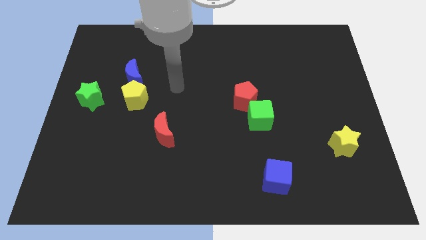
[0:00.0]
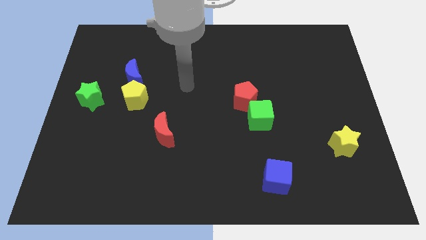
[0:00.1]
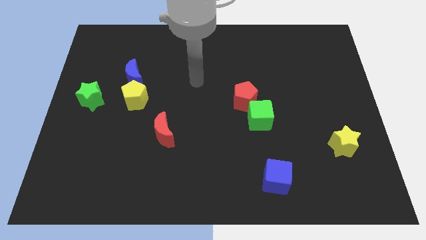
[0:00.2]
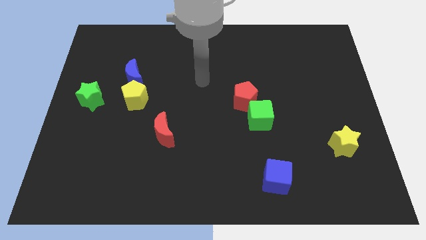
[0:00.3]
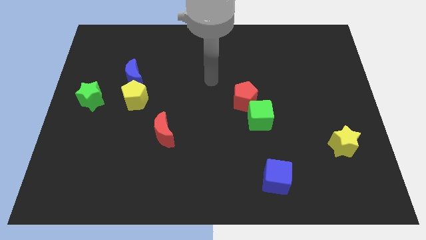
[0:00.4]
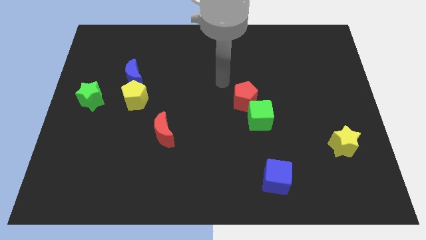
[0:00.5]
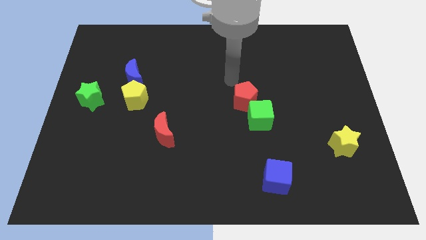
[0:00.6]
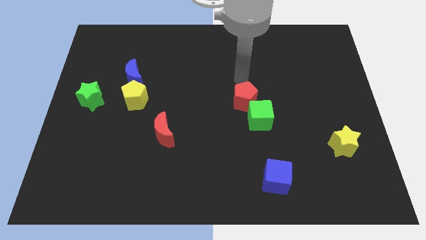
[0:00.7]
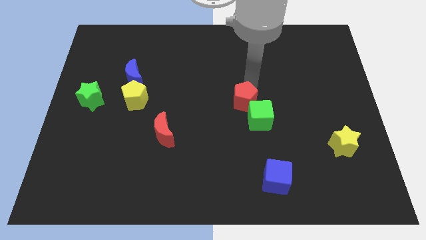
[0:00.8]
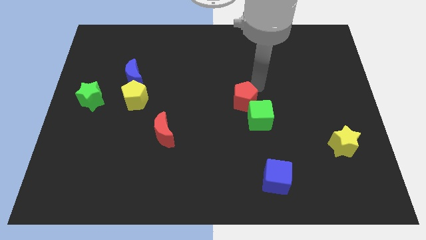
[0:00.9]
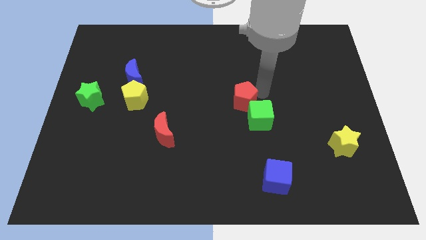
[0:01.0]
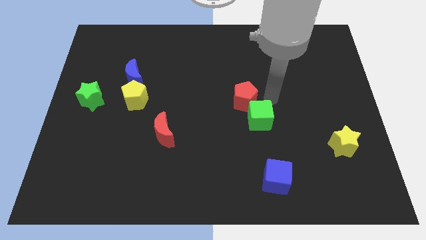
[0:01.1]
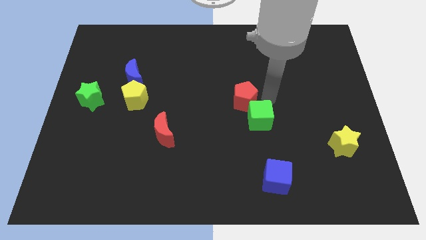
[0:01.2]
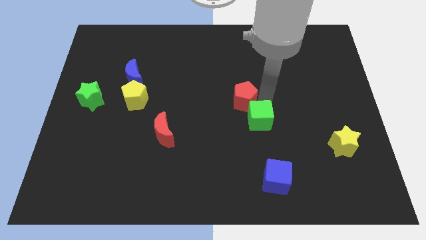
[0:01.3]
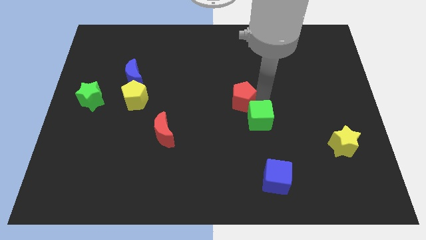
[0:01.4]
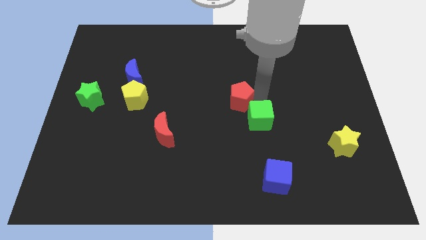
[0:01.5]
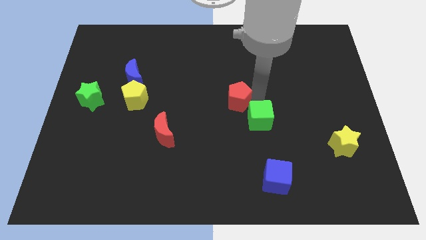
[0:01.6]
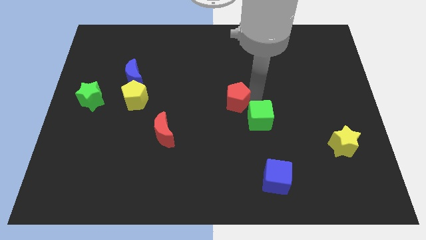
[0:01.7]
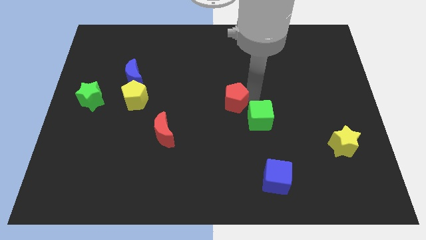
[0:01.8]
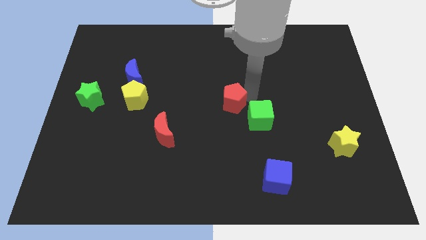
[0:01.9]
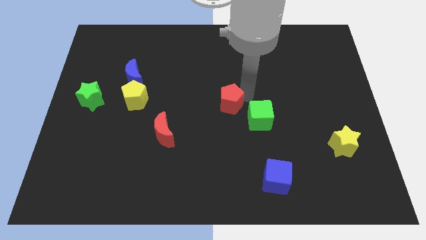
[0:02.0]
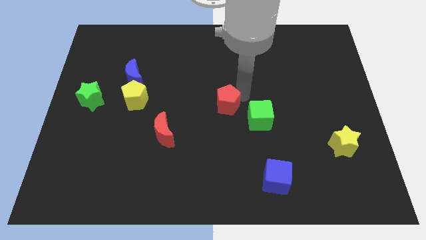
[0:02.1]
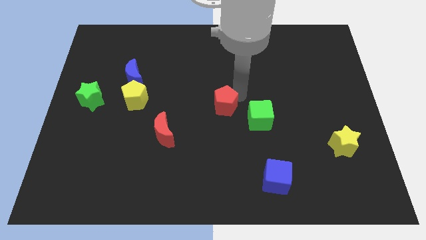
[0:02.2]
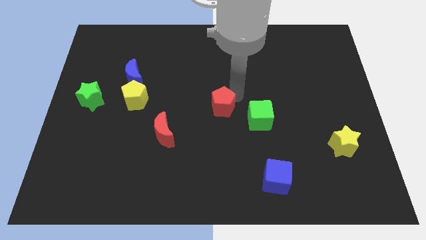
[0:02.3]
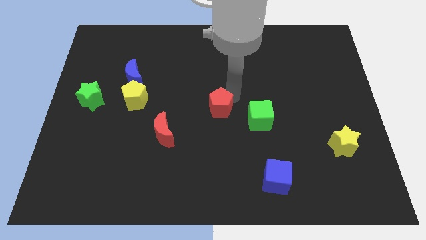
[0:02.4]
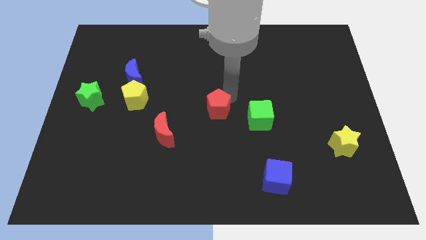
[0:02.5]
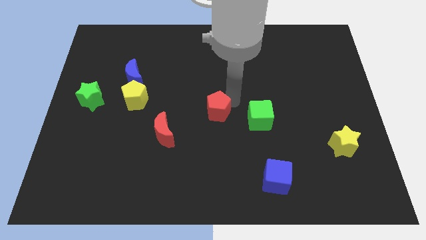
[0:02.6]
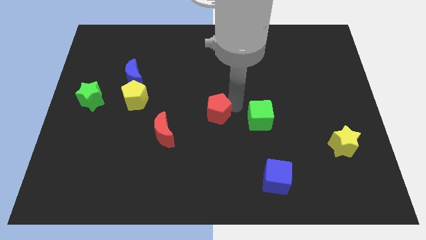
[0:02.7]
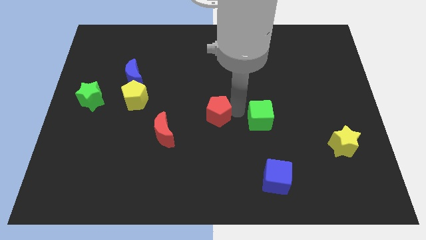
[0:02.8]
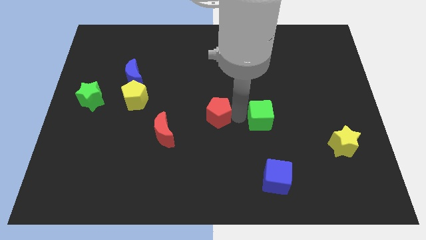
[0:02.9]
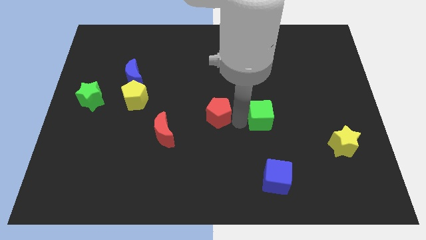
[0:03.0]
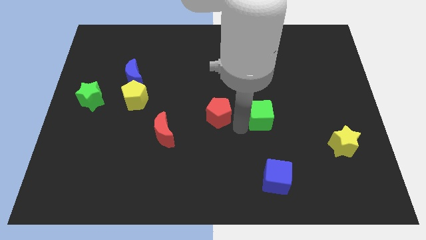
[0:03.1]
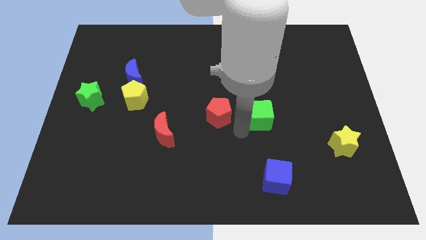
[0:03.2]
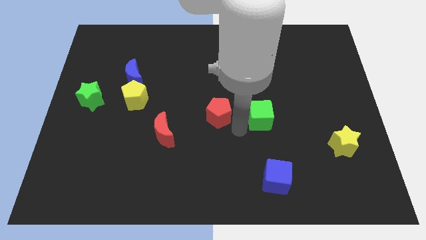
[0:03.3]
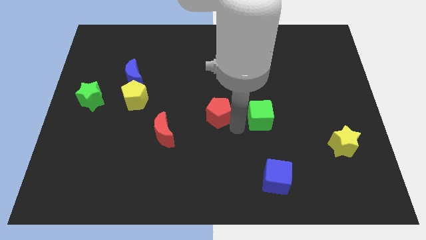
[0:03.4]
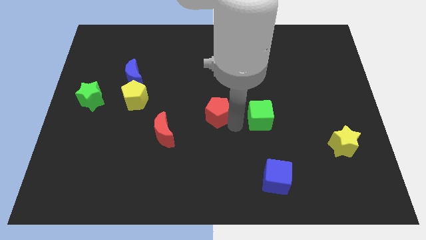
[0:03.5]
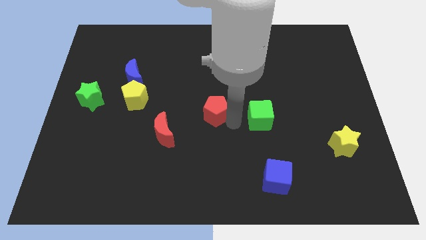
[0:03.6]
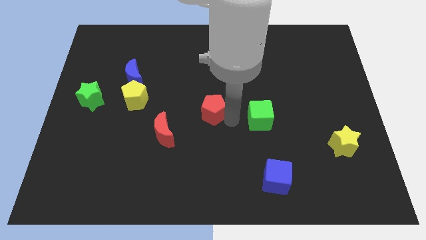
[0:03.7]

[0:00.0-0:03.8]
move the red pentagon left a little

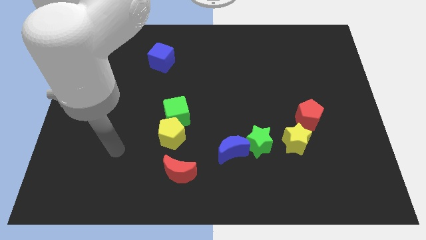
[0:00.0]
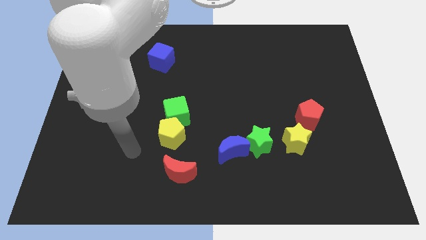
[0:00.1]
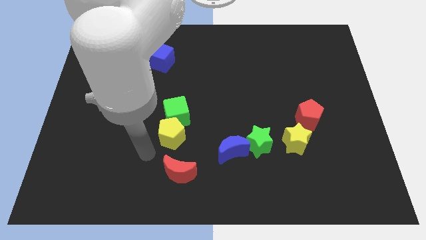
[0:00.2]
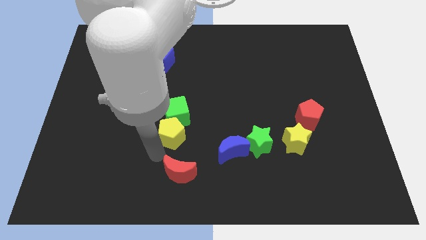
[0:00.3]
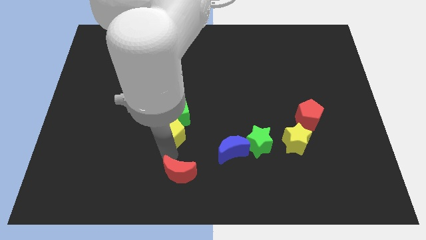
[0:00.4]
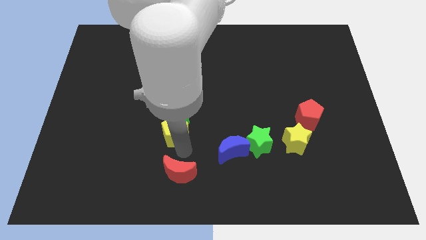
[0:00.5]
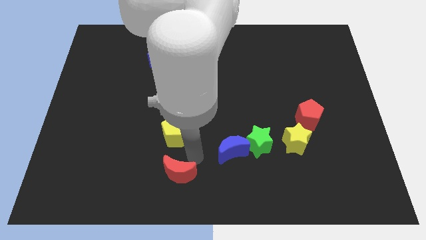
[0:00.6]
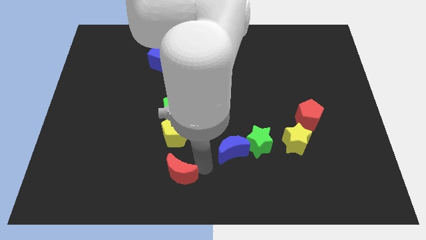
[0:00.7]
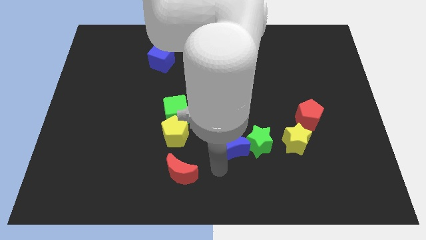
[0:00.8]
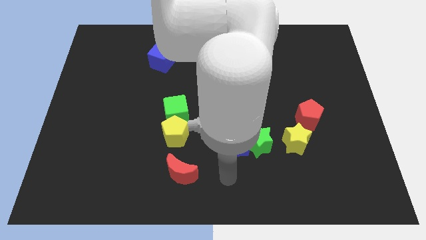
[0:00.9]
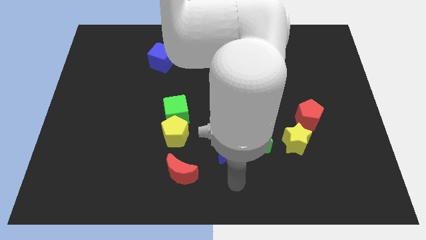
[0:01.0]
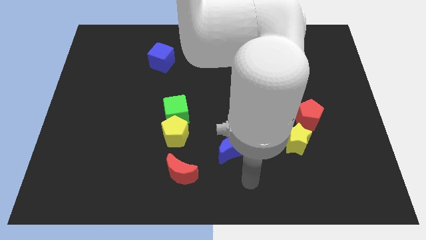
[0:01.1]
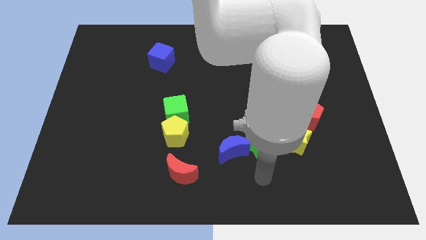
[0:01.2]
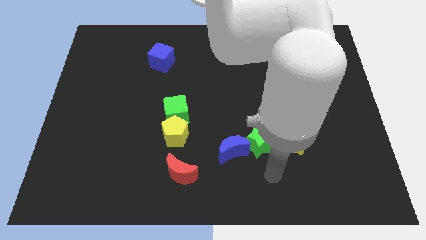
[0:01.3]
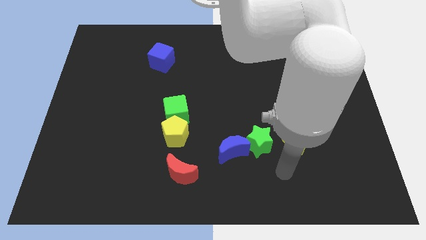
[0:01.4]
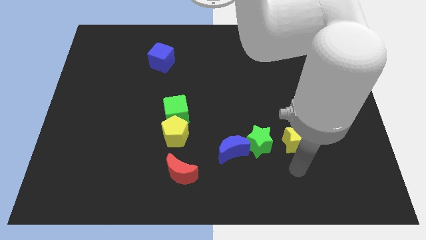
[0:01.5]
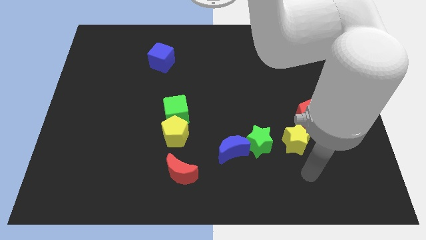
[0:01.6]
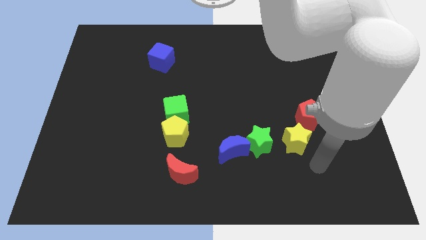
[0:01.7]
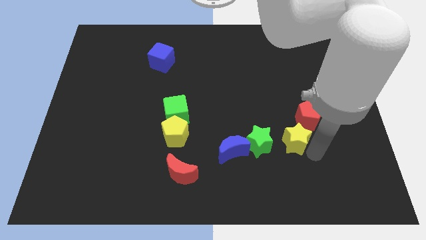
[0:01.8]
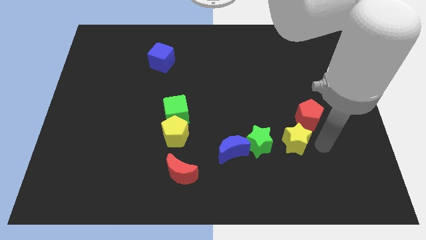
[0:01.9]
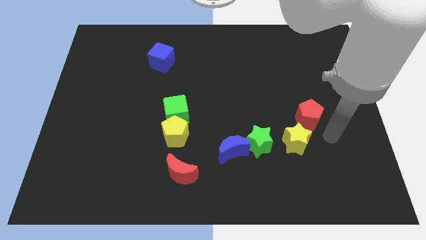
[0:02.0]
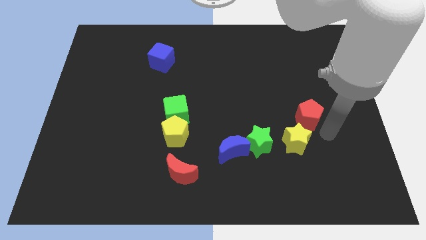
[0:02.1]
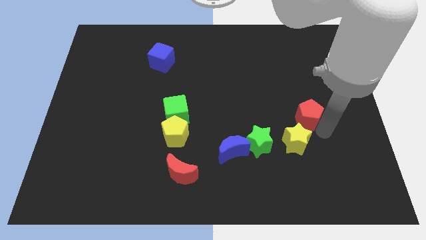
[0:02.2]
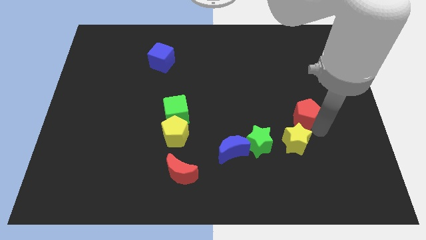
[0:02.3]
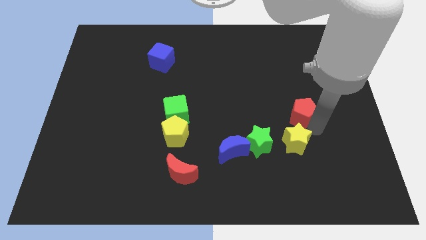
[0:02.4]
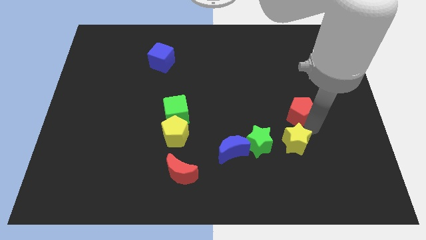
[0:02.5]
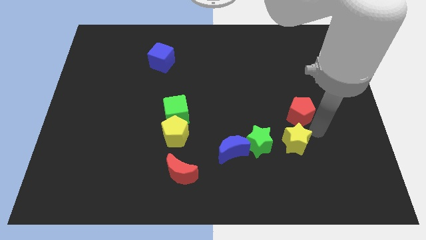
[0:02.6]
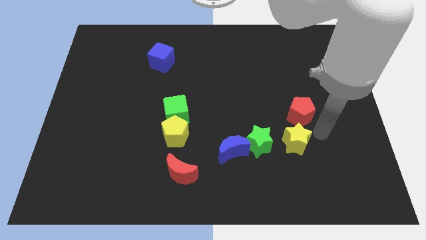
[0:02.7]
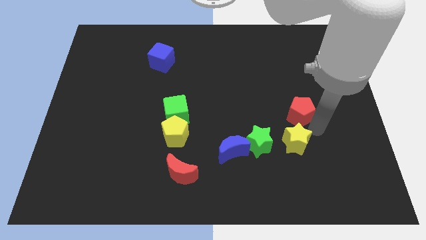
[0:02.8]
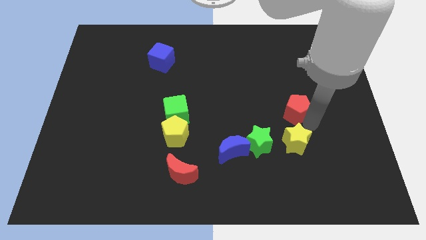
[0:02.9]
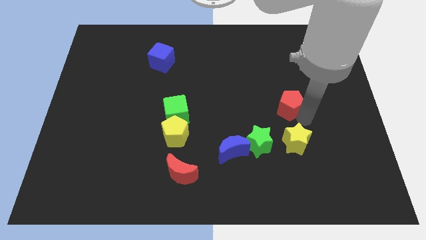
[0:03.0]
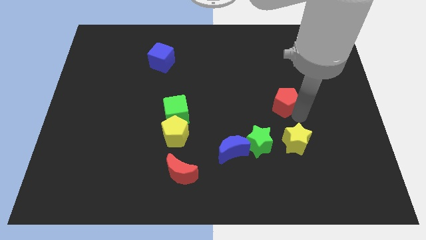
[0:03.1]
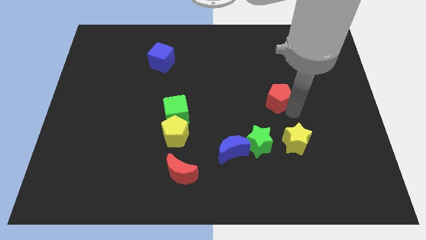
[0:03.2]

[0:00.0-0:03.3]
slightly move the red pentagon up and left

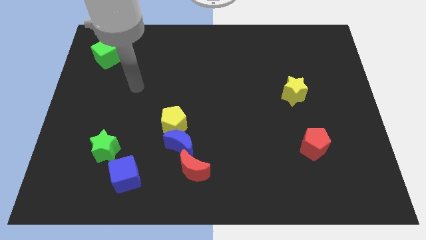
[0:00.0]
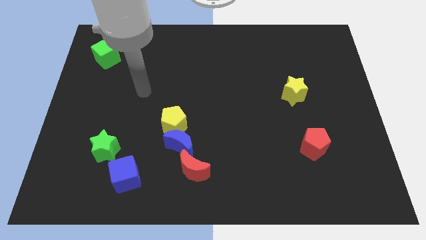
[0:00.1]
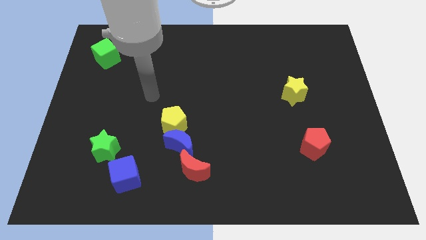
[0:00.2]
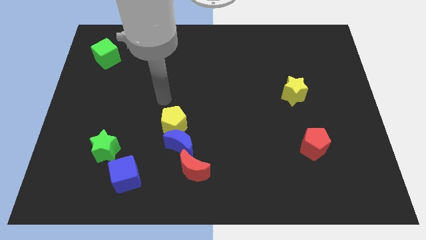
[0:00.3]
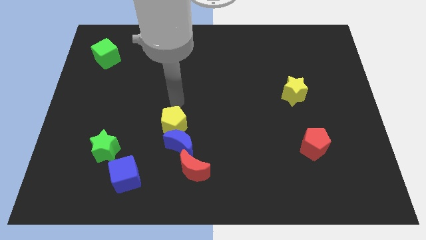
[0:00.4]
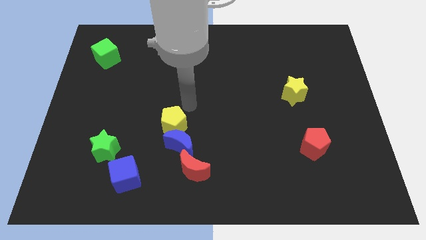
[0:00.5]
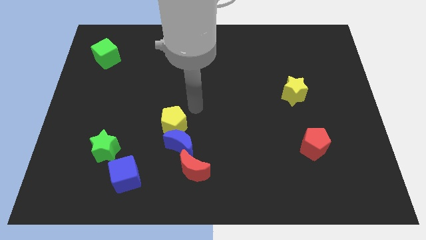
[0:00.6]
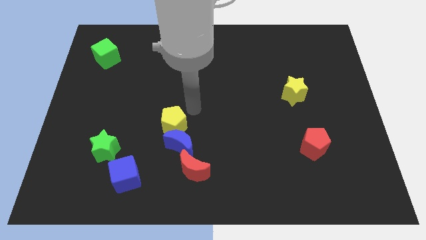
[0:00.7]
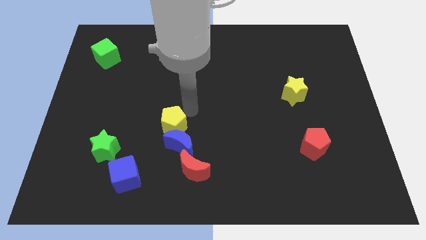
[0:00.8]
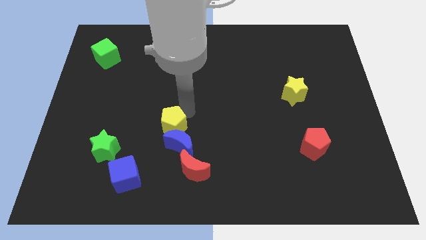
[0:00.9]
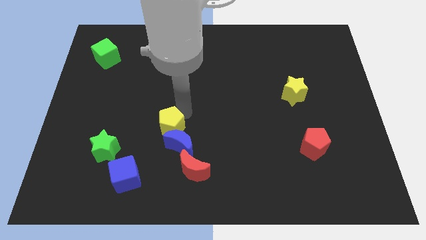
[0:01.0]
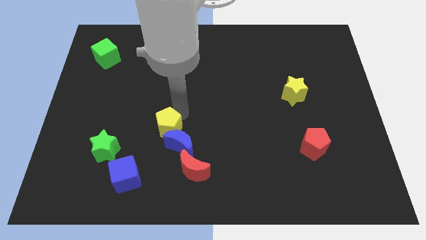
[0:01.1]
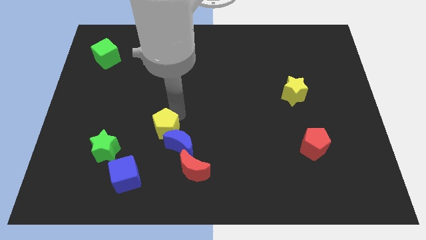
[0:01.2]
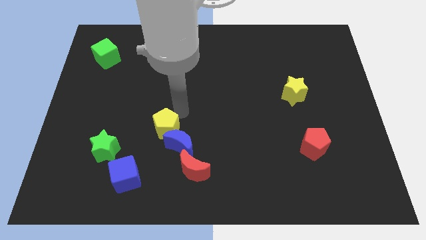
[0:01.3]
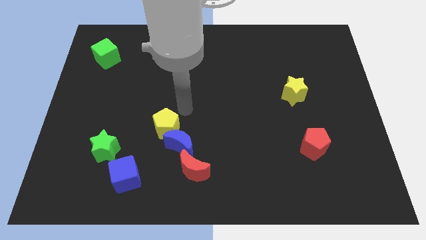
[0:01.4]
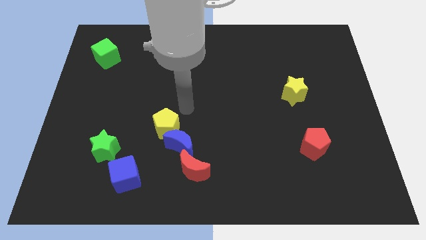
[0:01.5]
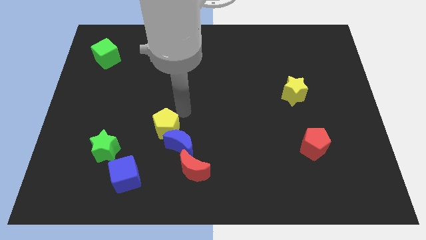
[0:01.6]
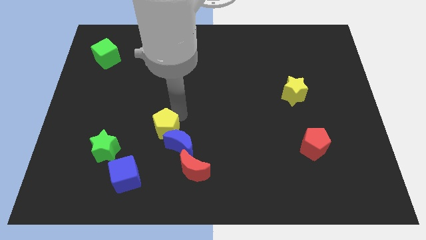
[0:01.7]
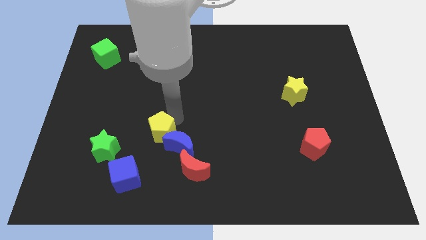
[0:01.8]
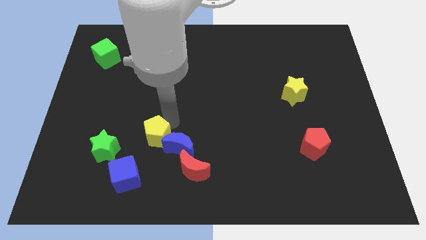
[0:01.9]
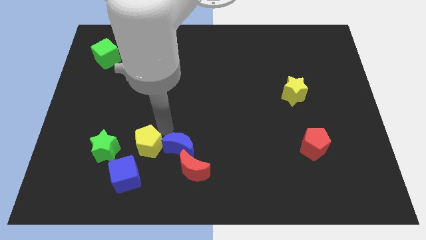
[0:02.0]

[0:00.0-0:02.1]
push the yellow pentagon down and then left slightly
